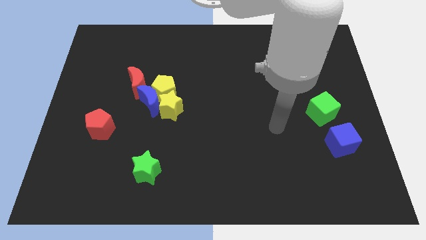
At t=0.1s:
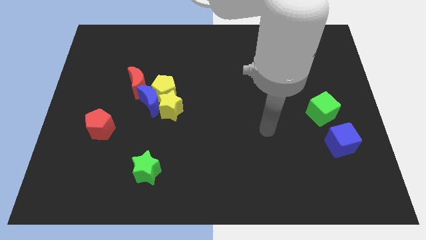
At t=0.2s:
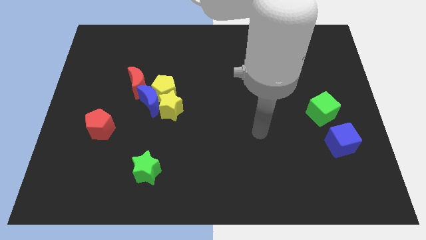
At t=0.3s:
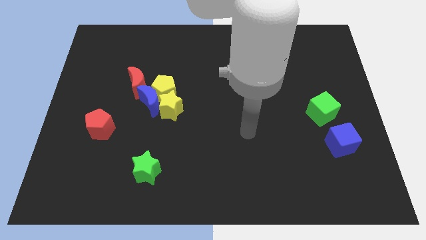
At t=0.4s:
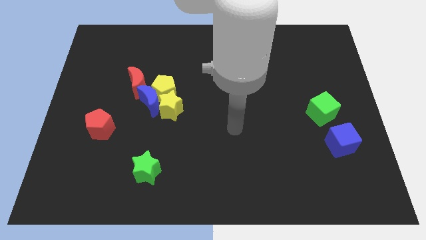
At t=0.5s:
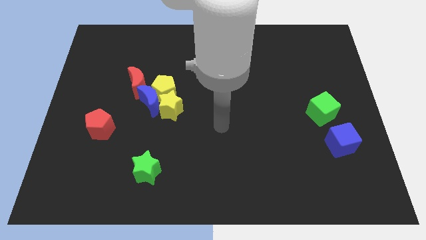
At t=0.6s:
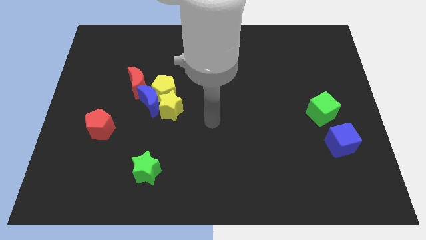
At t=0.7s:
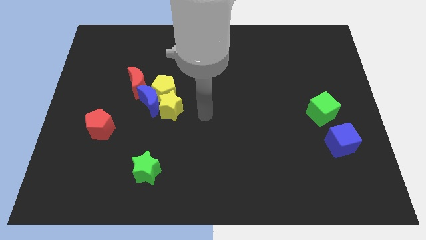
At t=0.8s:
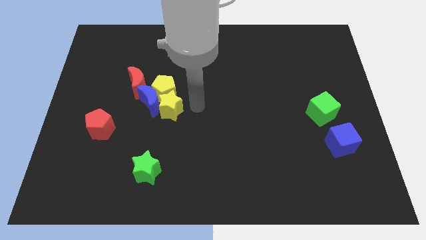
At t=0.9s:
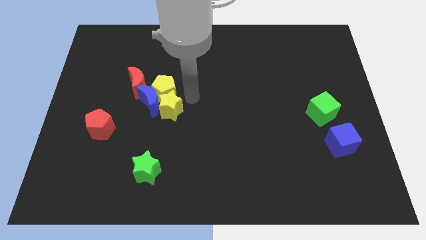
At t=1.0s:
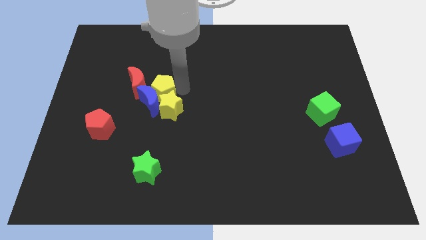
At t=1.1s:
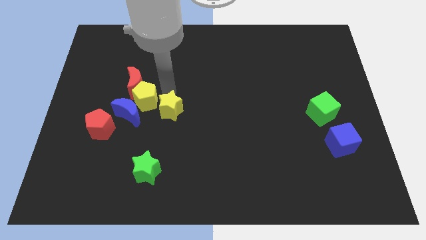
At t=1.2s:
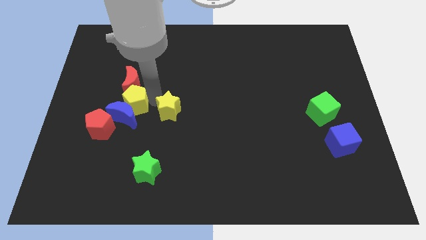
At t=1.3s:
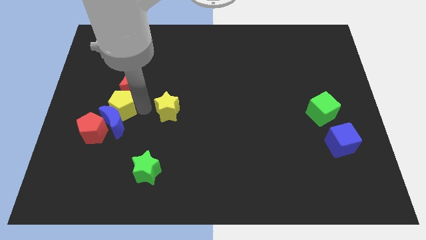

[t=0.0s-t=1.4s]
pull the yellow star apart from the yellow pentagon and blue moon

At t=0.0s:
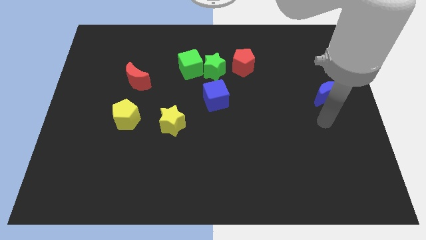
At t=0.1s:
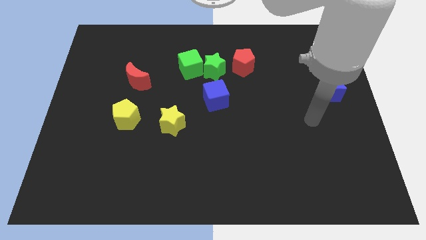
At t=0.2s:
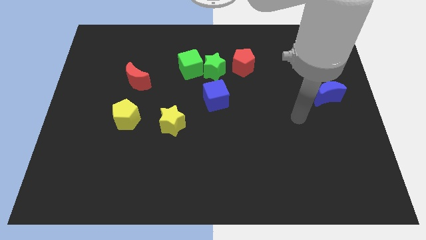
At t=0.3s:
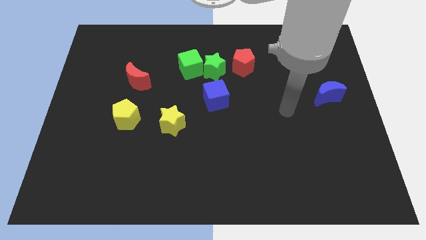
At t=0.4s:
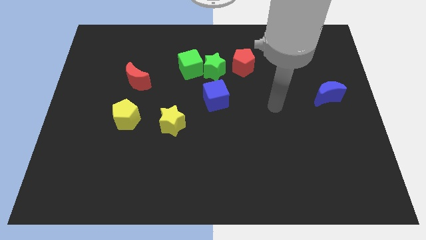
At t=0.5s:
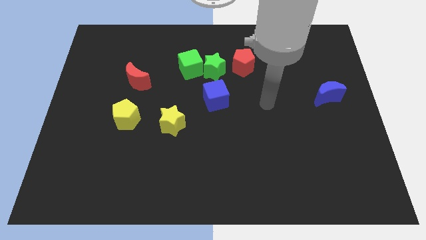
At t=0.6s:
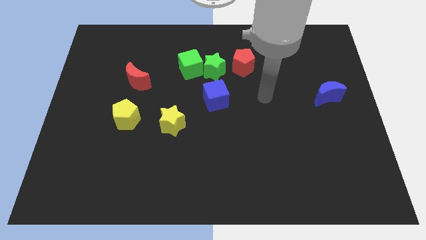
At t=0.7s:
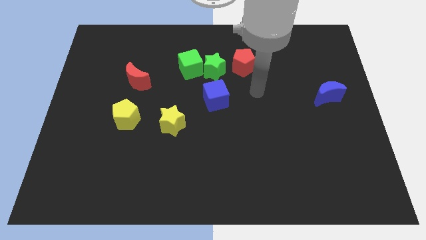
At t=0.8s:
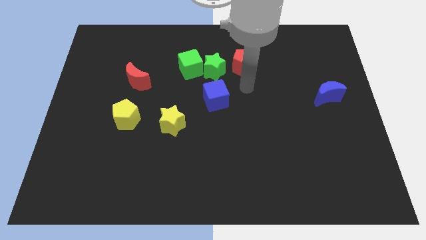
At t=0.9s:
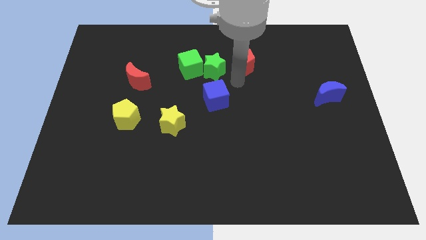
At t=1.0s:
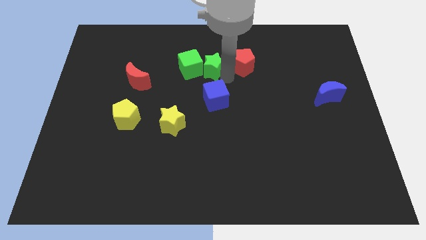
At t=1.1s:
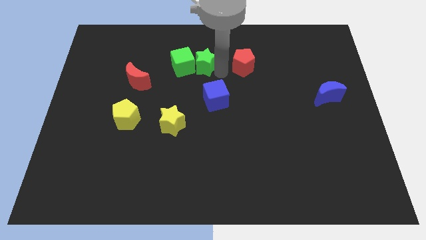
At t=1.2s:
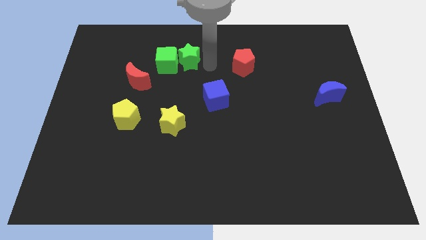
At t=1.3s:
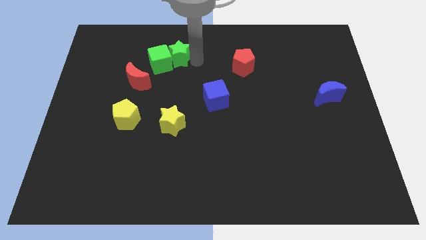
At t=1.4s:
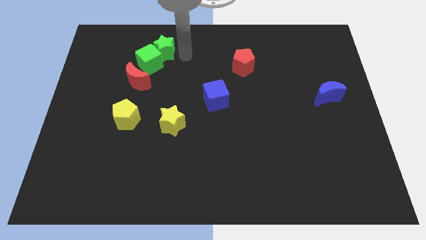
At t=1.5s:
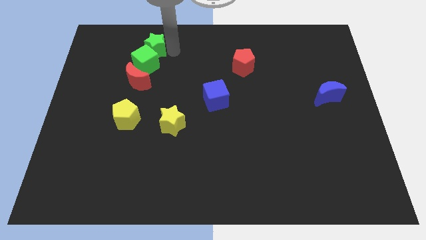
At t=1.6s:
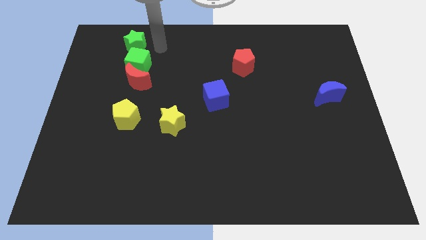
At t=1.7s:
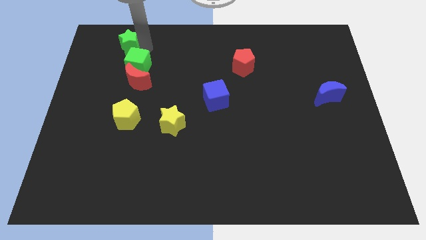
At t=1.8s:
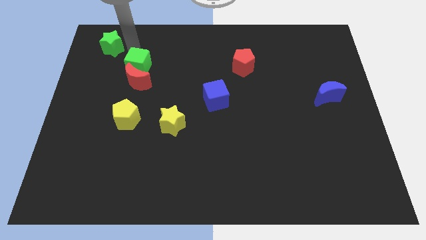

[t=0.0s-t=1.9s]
pull the green cube apart from the green star

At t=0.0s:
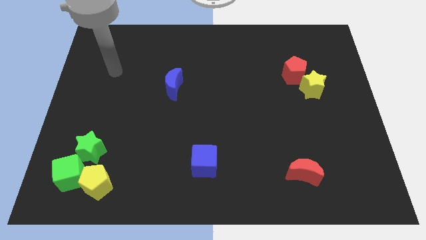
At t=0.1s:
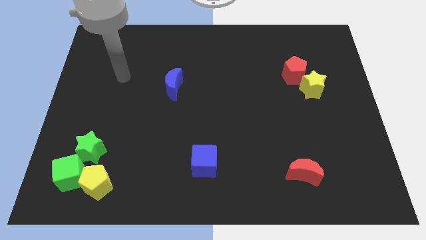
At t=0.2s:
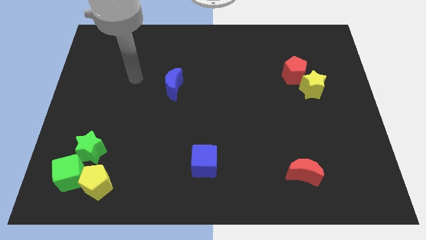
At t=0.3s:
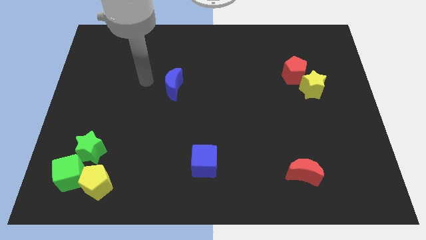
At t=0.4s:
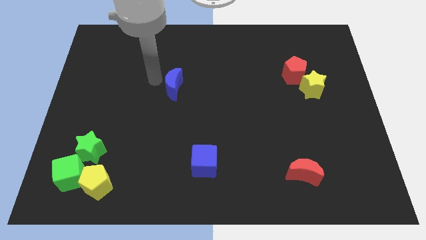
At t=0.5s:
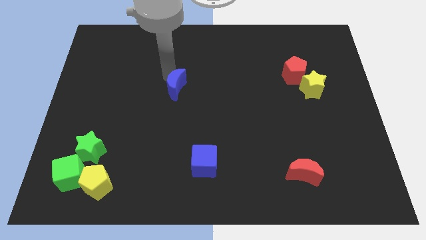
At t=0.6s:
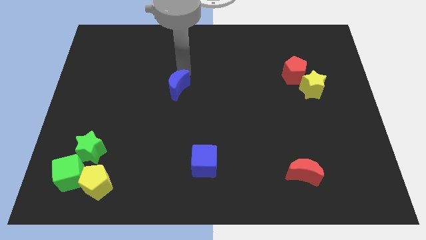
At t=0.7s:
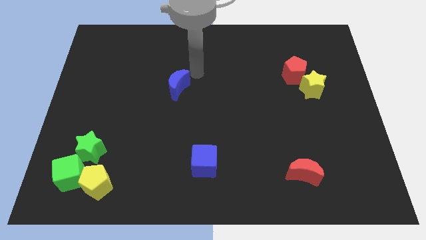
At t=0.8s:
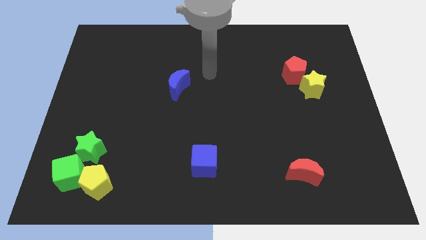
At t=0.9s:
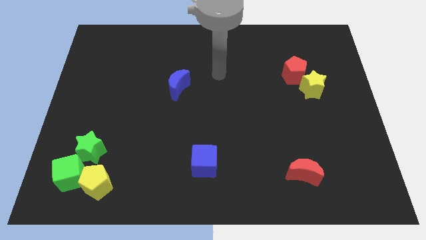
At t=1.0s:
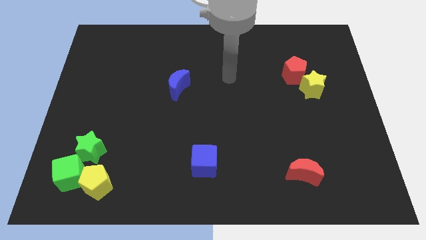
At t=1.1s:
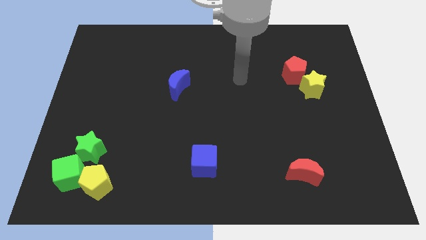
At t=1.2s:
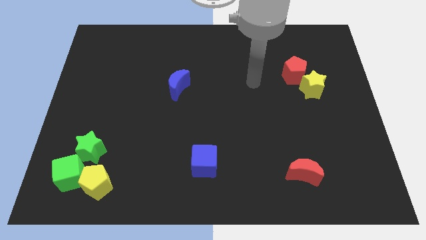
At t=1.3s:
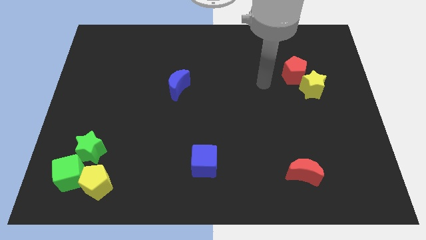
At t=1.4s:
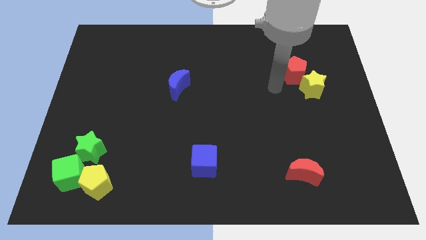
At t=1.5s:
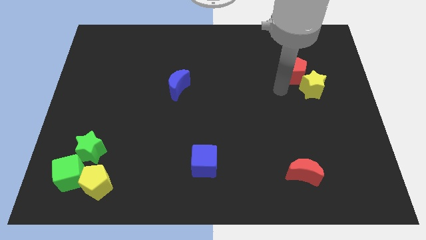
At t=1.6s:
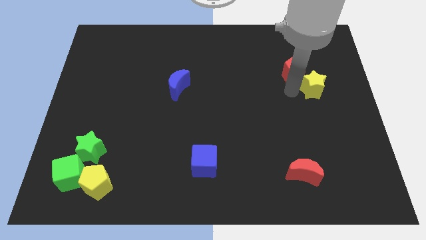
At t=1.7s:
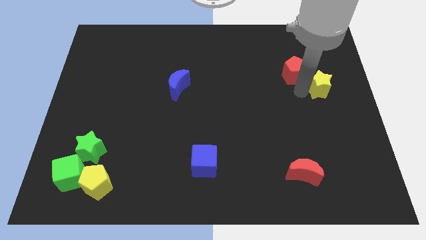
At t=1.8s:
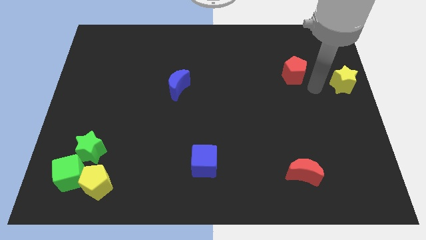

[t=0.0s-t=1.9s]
move the red pentagon away from the yellow star

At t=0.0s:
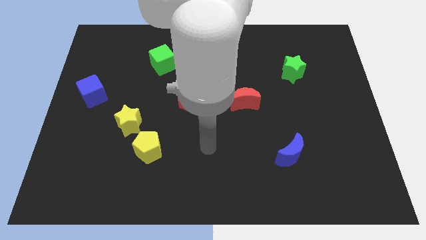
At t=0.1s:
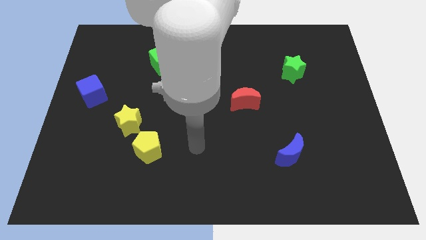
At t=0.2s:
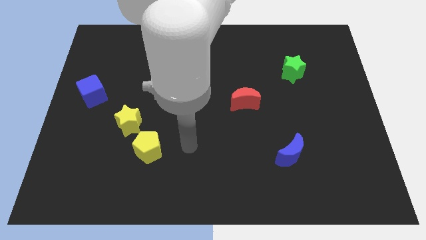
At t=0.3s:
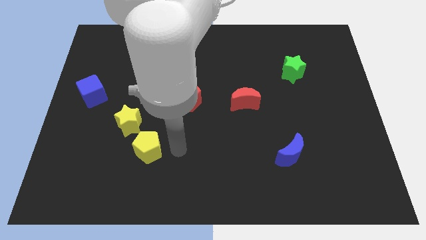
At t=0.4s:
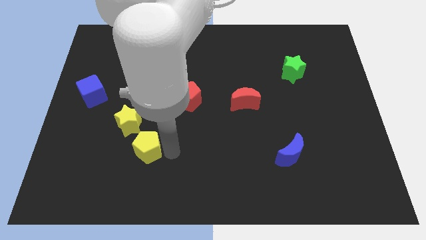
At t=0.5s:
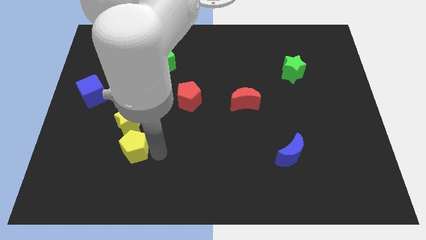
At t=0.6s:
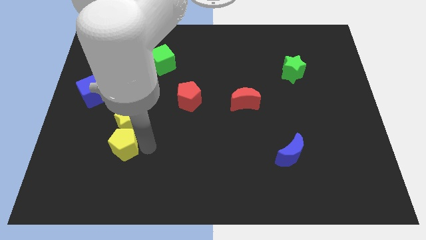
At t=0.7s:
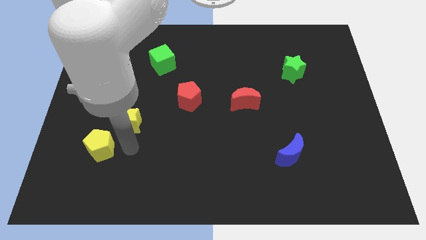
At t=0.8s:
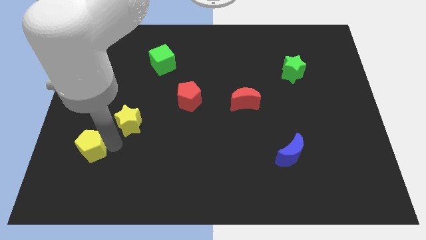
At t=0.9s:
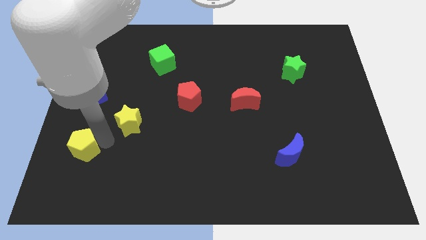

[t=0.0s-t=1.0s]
move the yellow star away from the yellow pentagon

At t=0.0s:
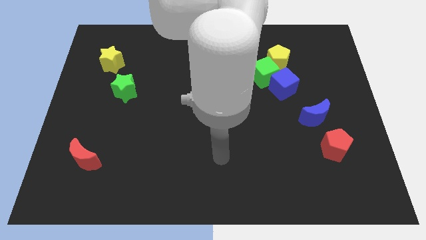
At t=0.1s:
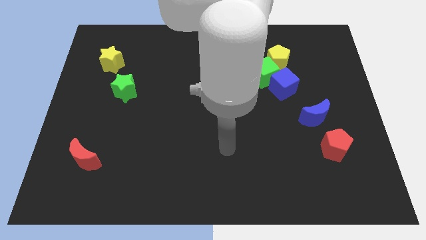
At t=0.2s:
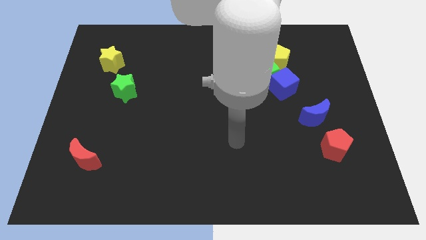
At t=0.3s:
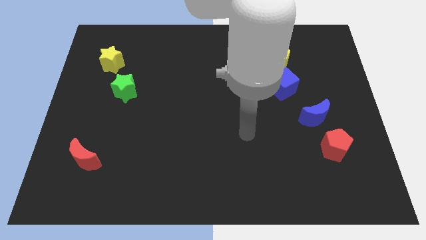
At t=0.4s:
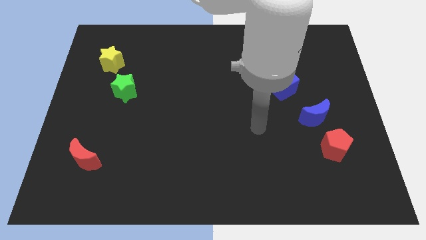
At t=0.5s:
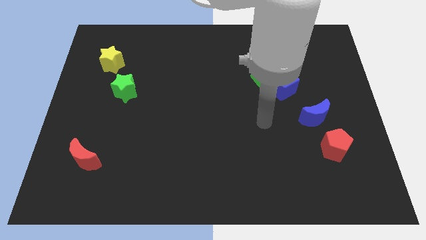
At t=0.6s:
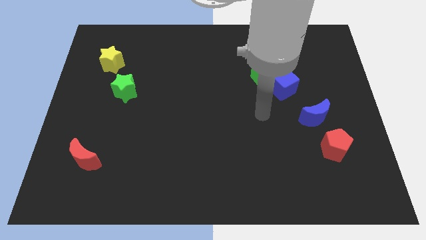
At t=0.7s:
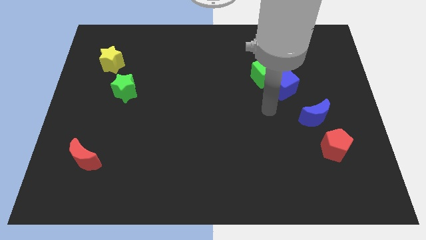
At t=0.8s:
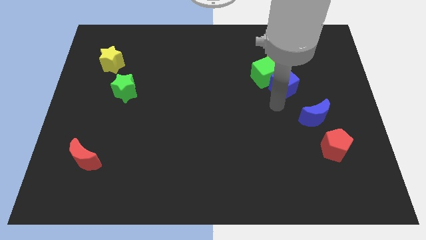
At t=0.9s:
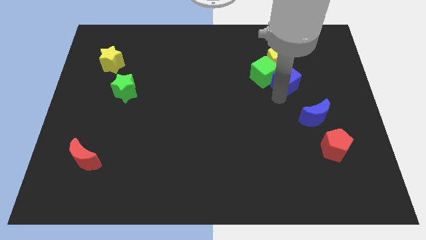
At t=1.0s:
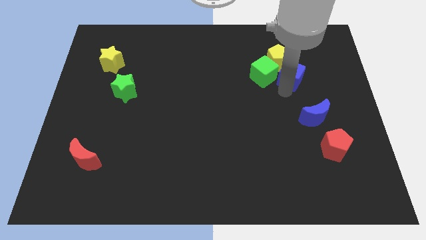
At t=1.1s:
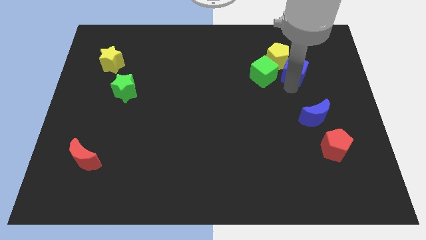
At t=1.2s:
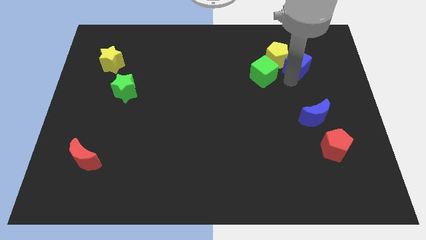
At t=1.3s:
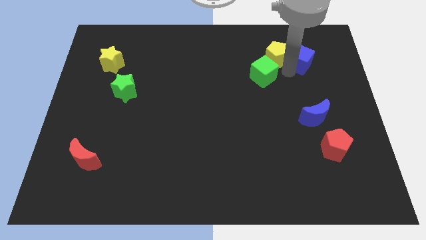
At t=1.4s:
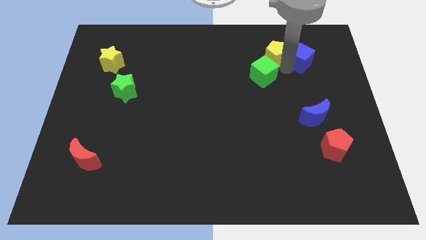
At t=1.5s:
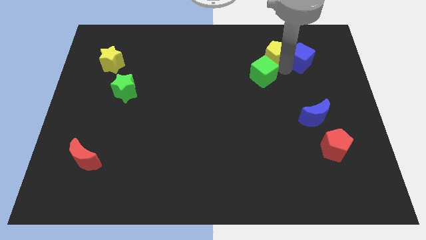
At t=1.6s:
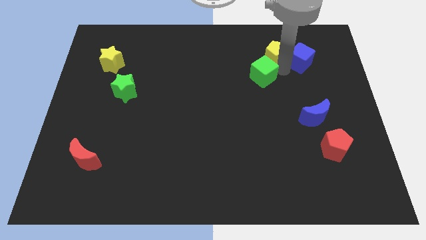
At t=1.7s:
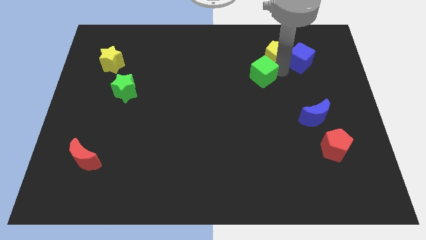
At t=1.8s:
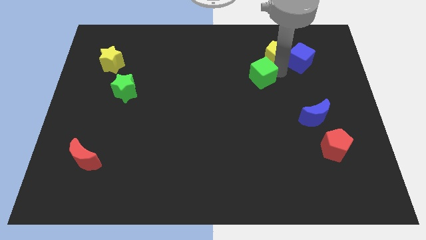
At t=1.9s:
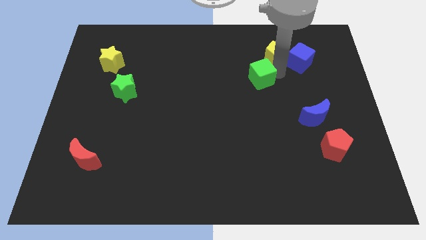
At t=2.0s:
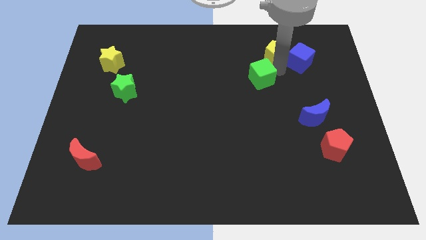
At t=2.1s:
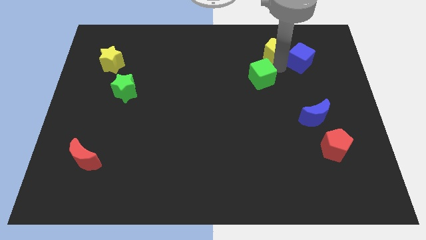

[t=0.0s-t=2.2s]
pull the green cube apart from the blue cube and yellow pentagon

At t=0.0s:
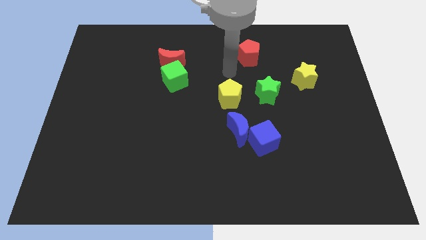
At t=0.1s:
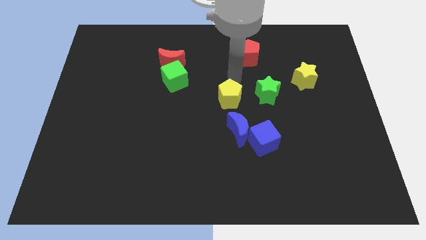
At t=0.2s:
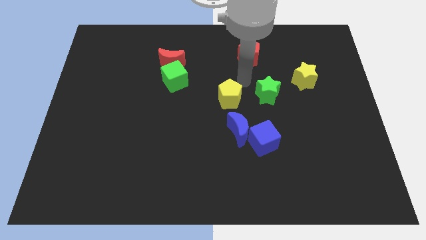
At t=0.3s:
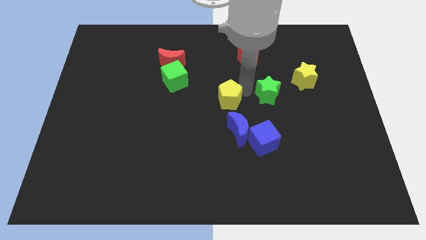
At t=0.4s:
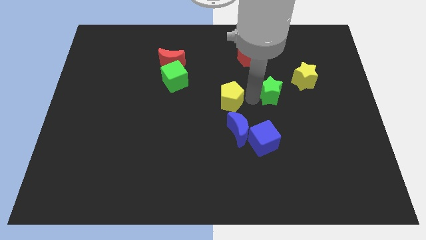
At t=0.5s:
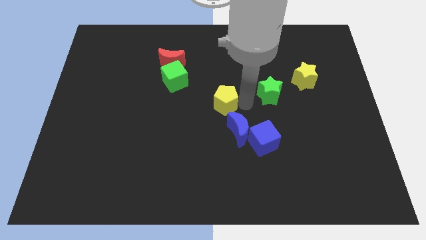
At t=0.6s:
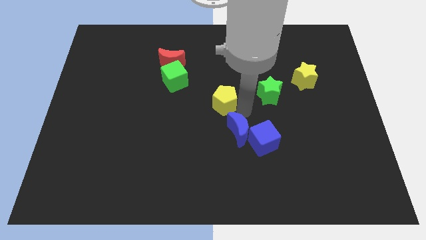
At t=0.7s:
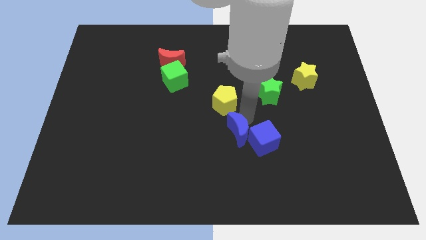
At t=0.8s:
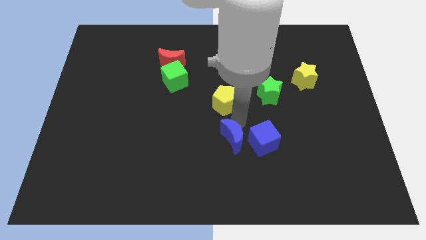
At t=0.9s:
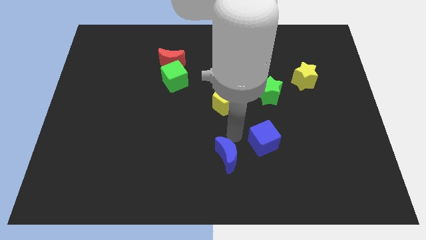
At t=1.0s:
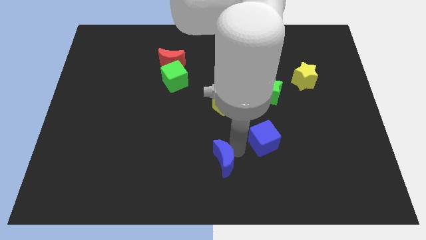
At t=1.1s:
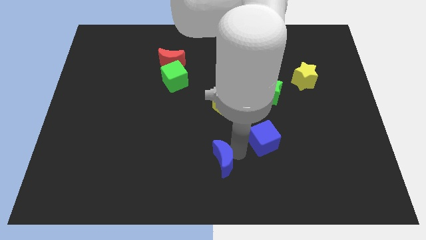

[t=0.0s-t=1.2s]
pull the blue cube apart from the blue moon
